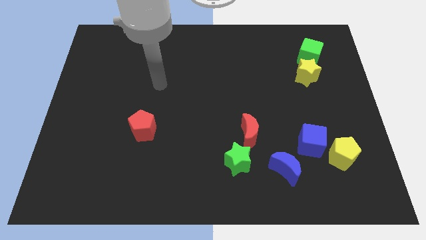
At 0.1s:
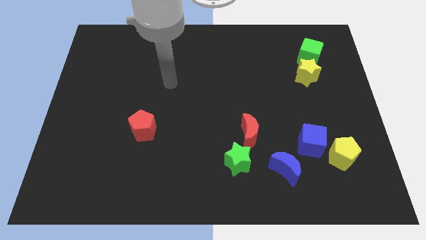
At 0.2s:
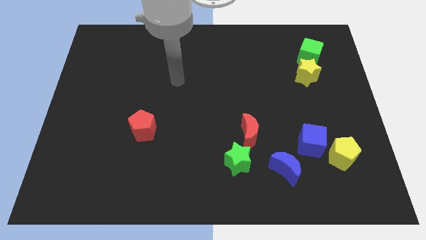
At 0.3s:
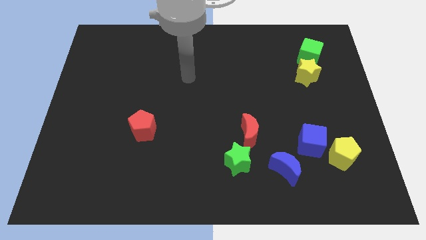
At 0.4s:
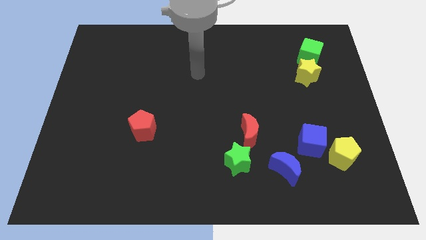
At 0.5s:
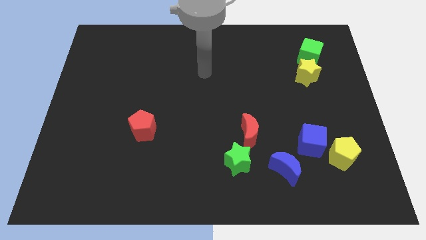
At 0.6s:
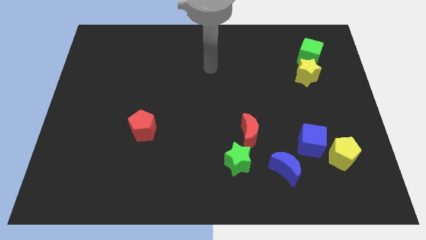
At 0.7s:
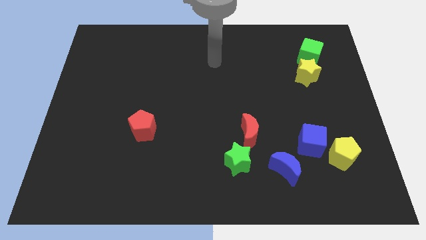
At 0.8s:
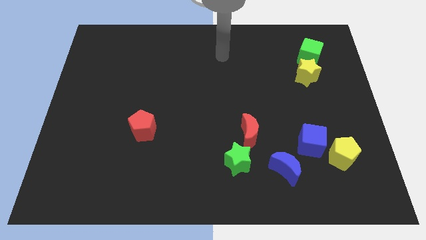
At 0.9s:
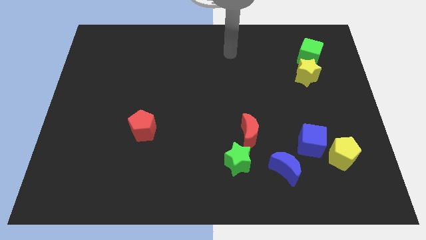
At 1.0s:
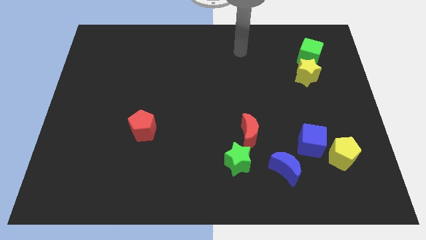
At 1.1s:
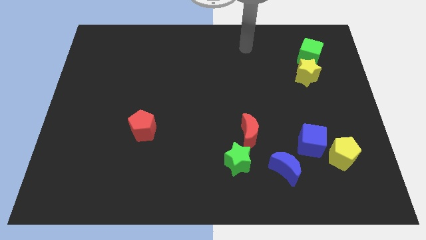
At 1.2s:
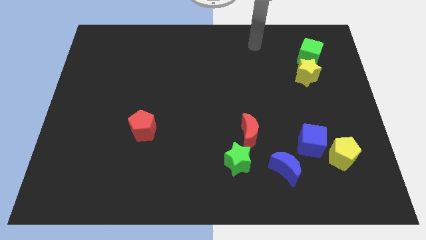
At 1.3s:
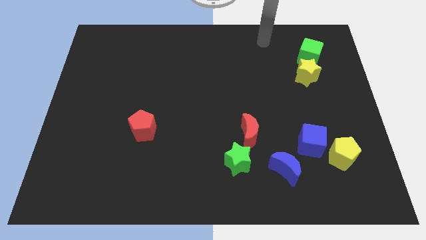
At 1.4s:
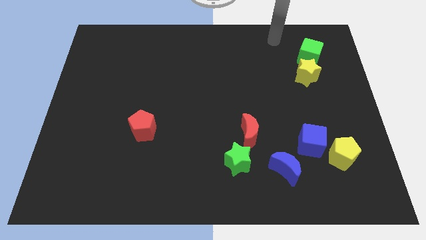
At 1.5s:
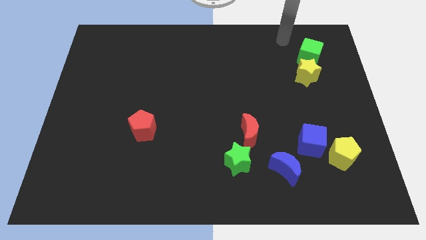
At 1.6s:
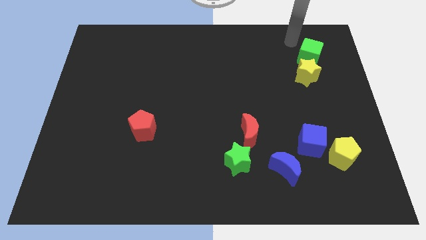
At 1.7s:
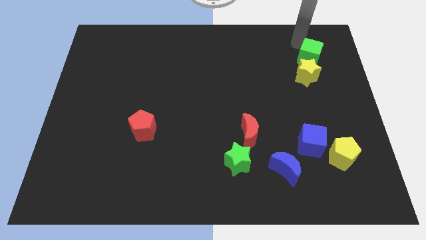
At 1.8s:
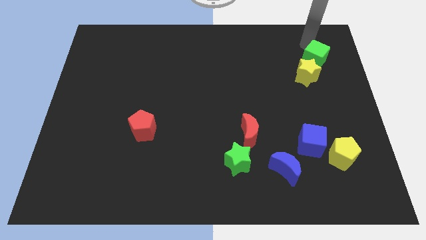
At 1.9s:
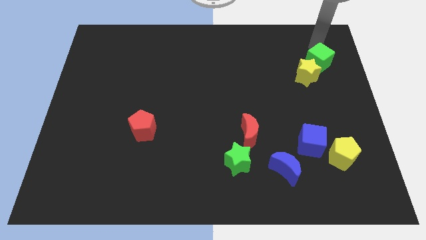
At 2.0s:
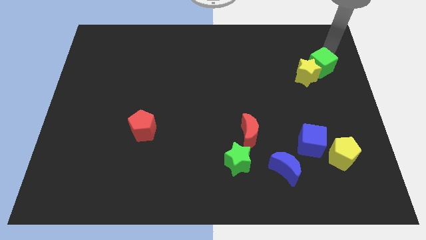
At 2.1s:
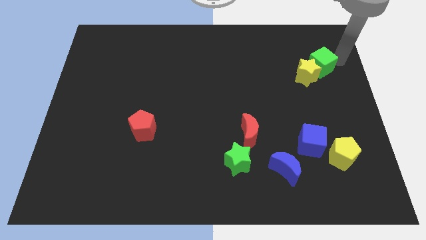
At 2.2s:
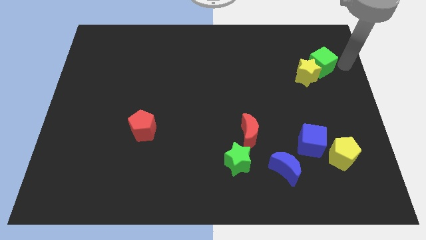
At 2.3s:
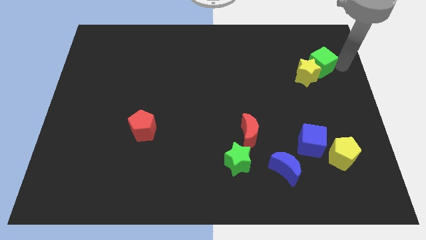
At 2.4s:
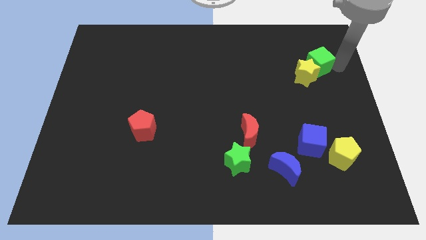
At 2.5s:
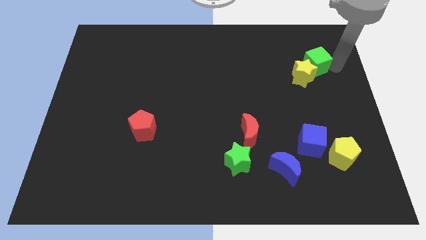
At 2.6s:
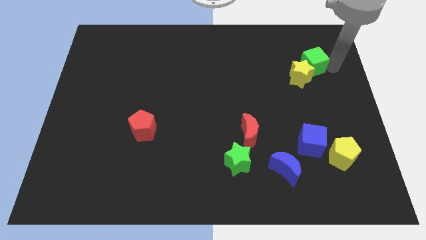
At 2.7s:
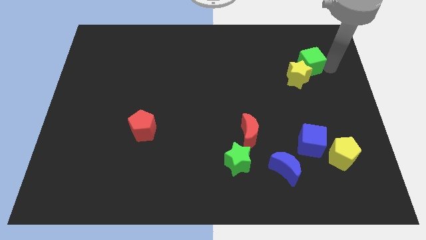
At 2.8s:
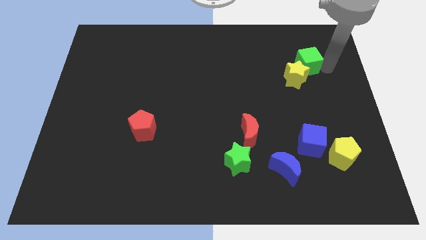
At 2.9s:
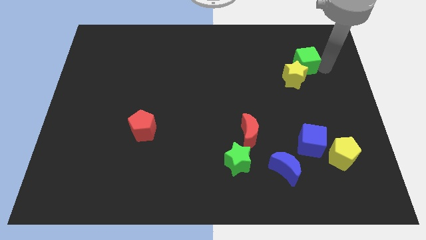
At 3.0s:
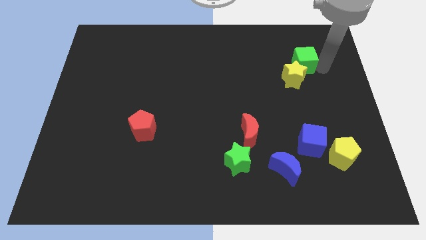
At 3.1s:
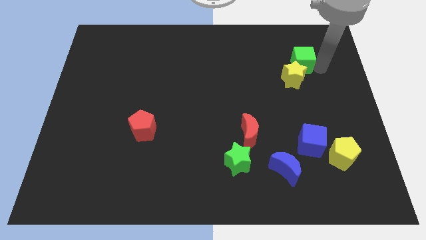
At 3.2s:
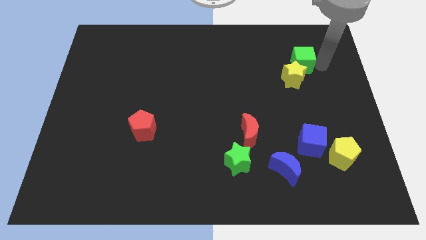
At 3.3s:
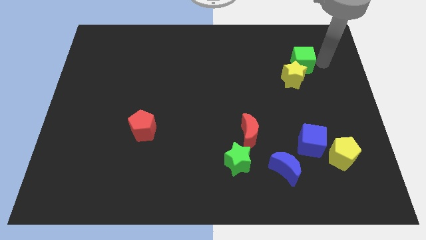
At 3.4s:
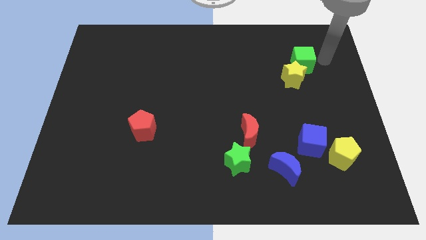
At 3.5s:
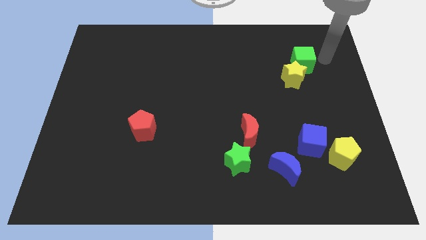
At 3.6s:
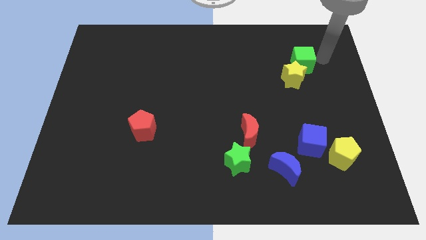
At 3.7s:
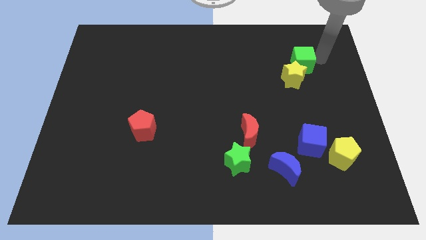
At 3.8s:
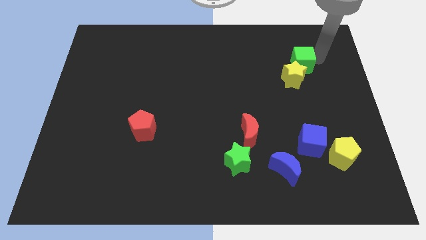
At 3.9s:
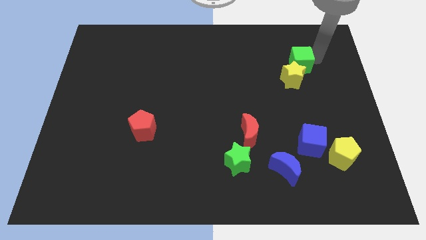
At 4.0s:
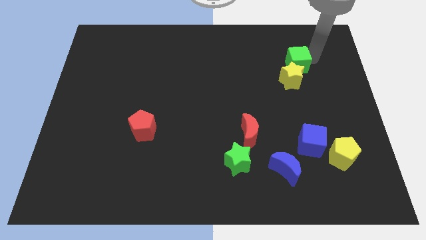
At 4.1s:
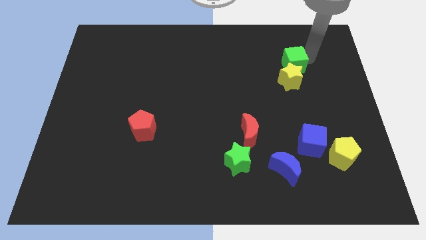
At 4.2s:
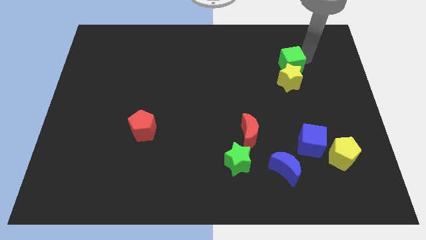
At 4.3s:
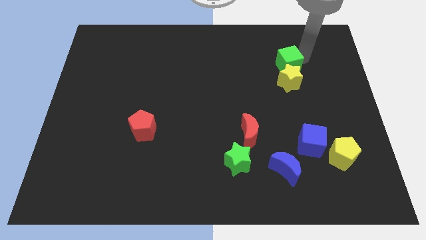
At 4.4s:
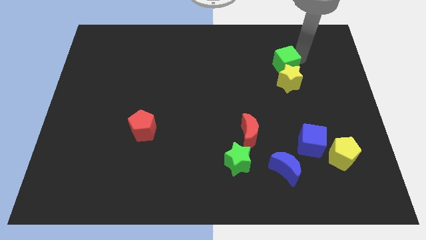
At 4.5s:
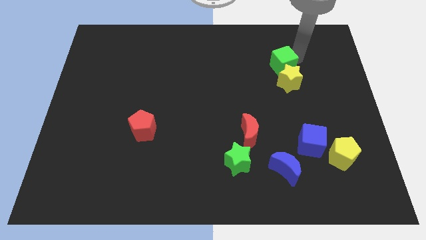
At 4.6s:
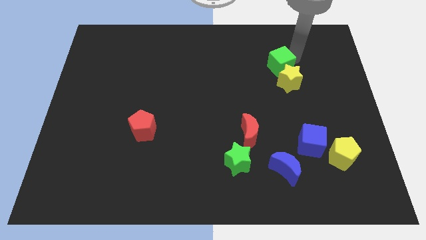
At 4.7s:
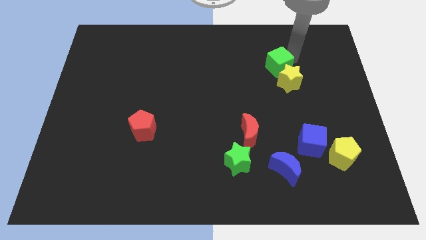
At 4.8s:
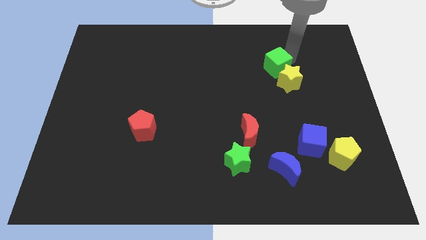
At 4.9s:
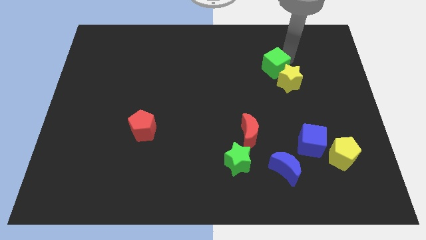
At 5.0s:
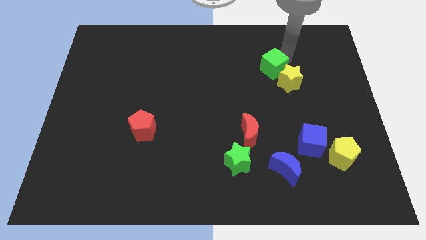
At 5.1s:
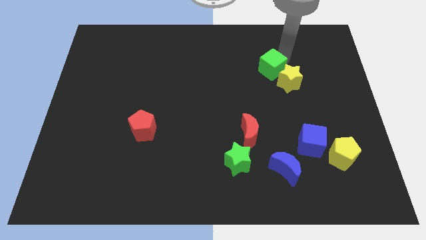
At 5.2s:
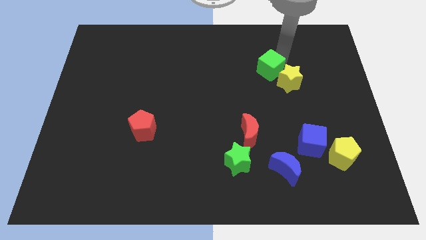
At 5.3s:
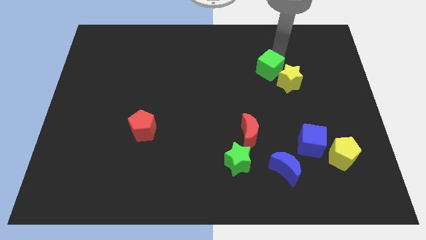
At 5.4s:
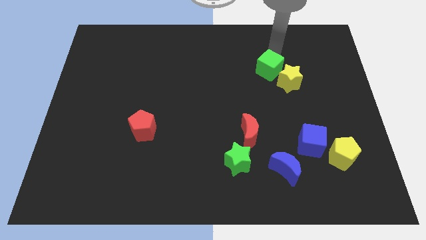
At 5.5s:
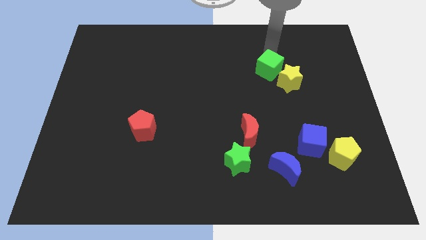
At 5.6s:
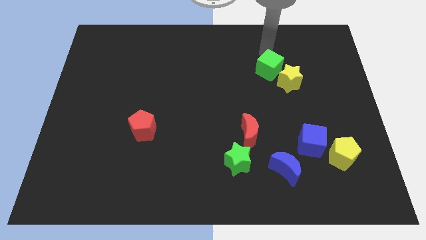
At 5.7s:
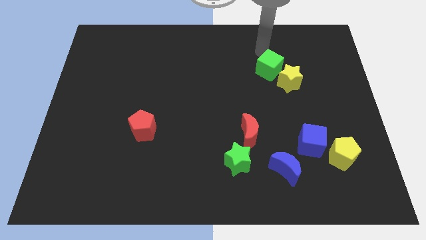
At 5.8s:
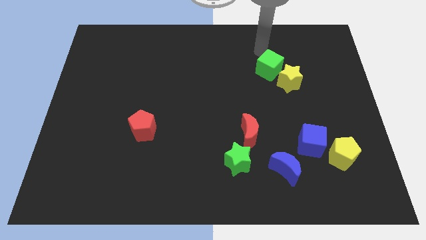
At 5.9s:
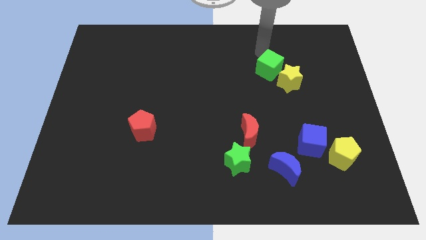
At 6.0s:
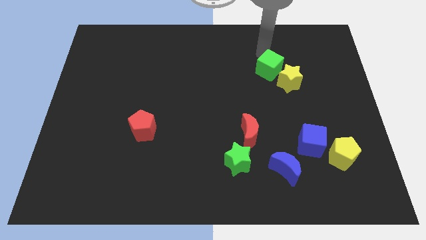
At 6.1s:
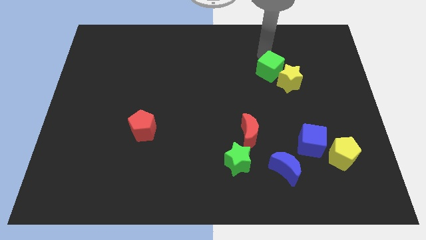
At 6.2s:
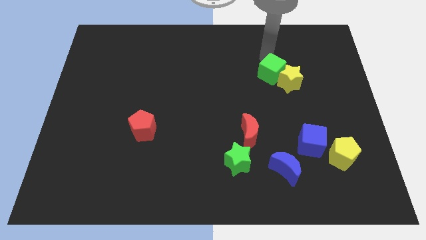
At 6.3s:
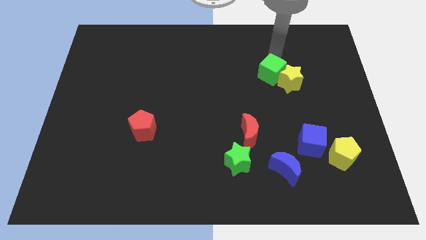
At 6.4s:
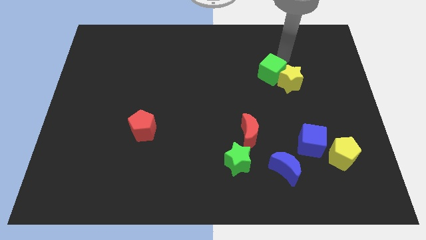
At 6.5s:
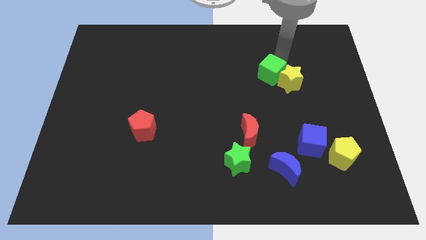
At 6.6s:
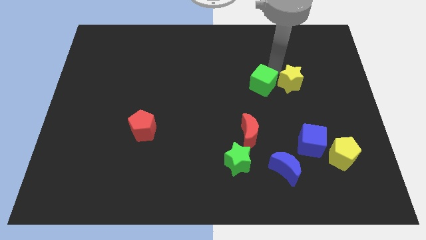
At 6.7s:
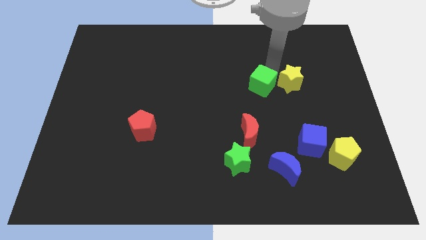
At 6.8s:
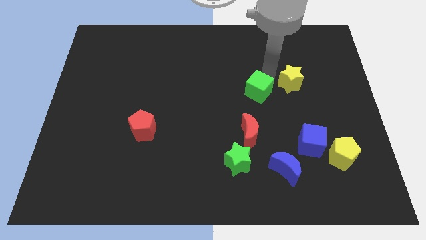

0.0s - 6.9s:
slide the green cube above the red moon
